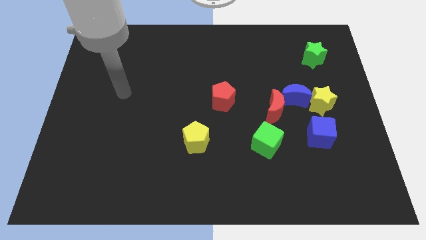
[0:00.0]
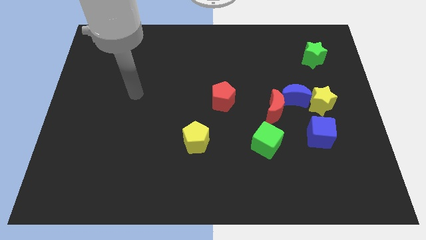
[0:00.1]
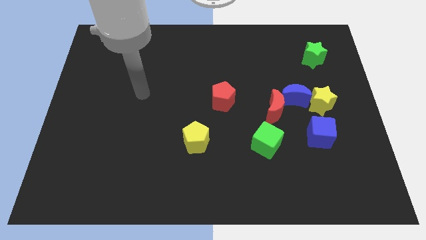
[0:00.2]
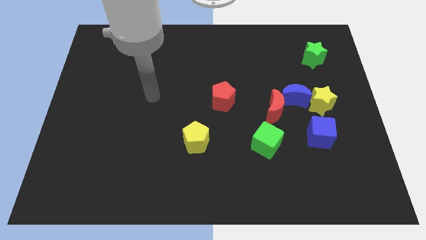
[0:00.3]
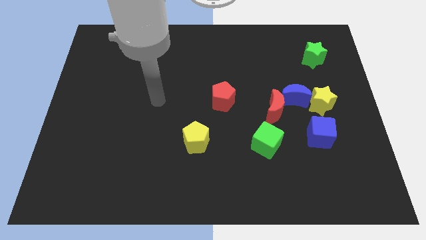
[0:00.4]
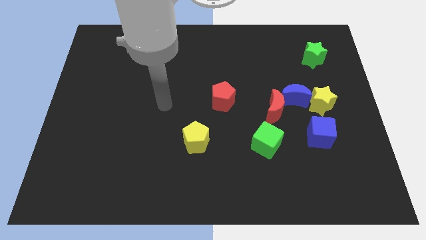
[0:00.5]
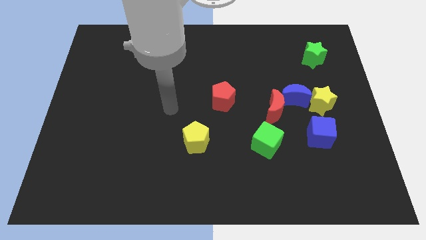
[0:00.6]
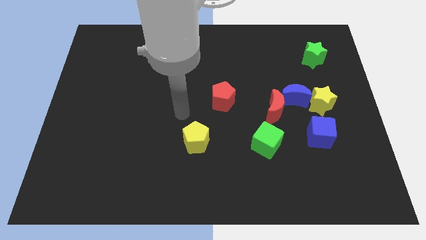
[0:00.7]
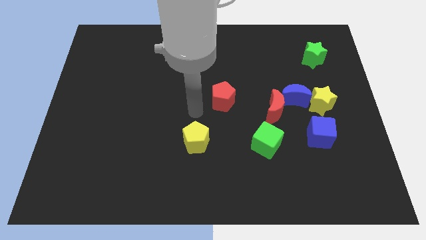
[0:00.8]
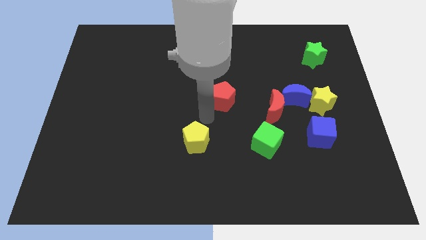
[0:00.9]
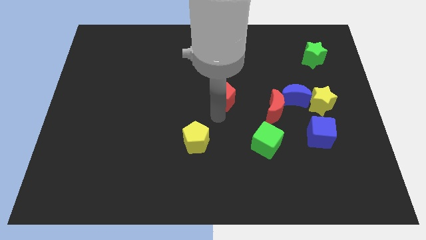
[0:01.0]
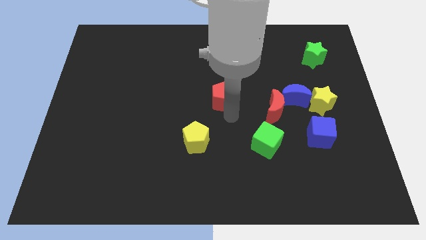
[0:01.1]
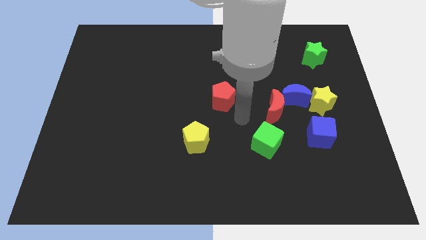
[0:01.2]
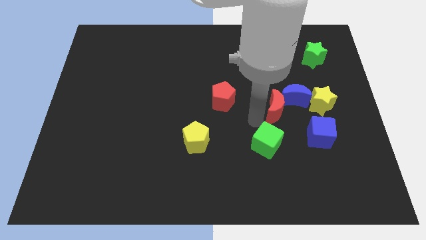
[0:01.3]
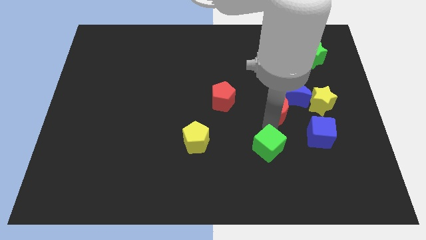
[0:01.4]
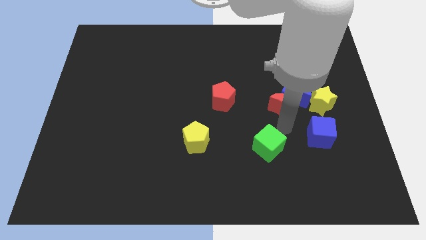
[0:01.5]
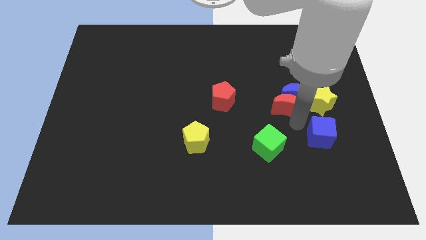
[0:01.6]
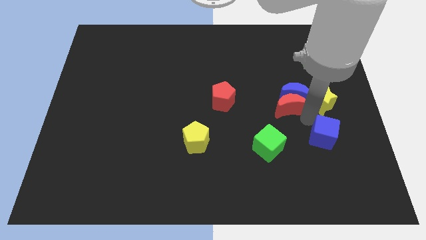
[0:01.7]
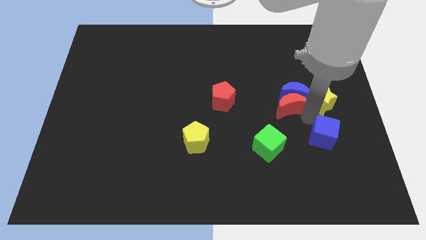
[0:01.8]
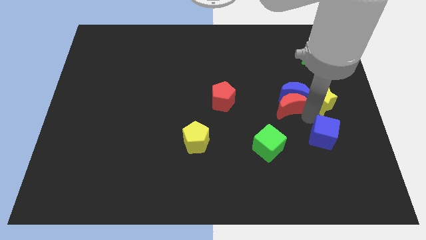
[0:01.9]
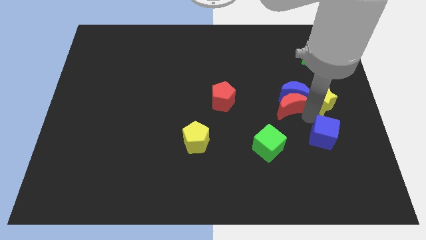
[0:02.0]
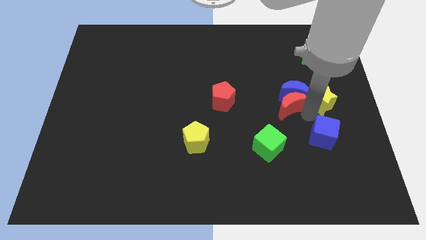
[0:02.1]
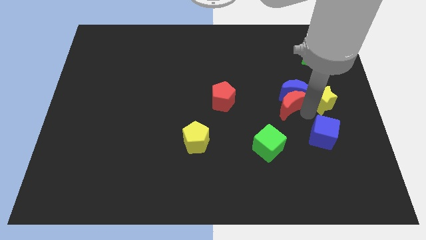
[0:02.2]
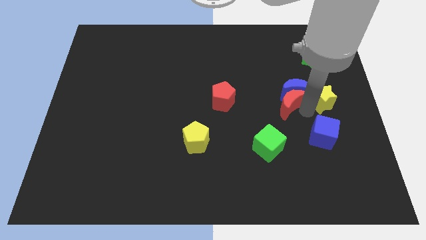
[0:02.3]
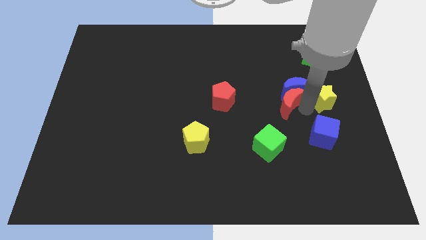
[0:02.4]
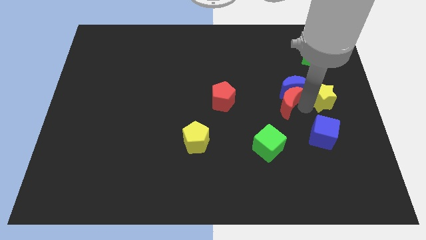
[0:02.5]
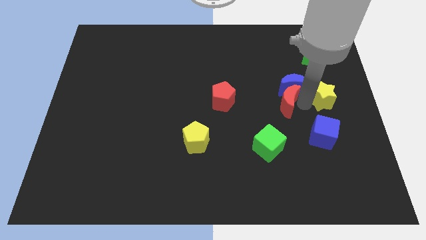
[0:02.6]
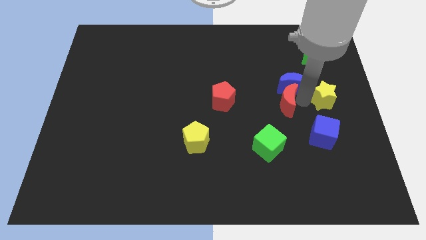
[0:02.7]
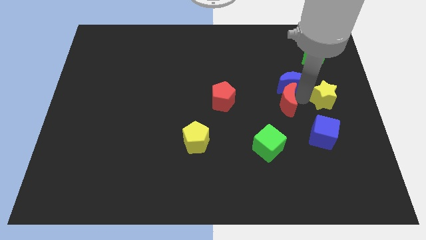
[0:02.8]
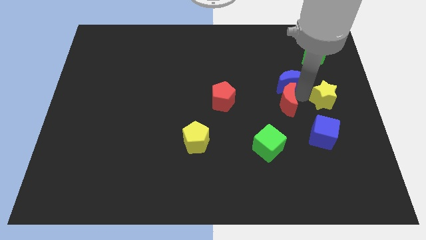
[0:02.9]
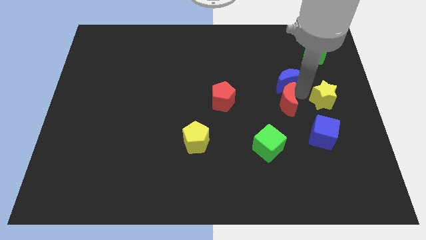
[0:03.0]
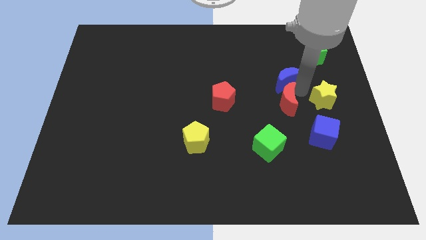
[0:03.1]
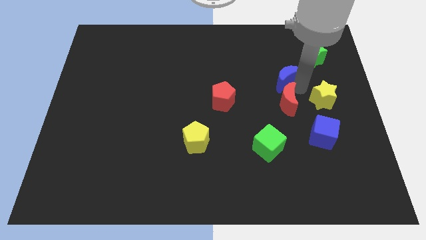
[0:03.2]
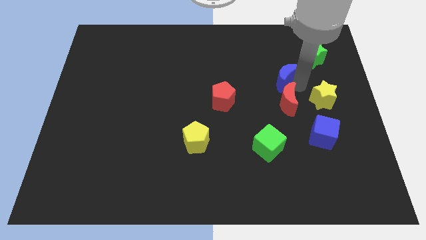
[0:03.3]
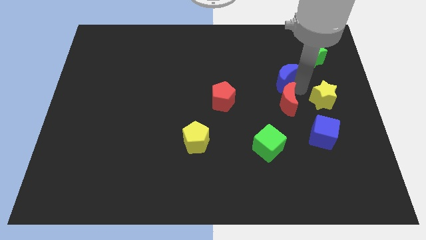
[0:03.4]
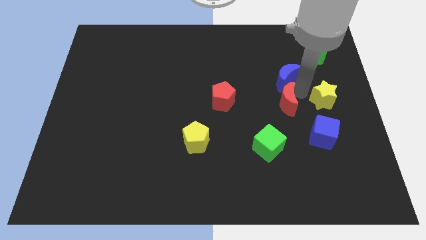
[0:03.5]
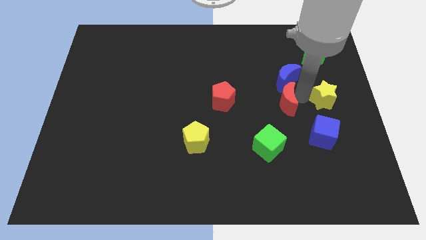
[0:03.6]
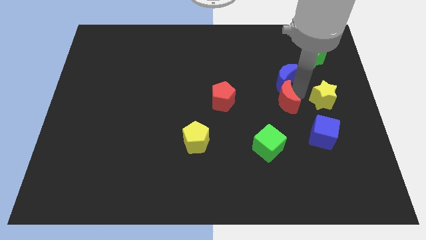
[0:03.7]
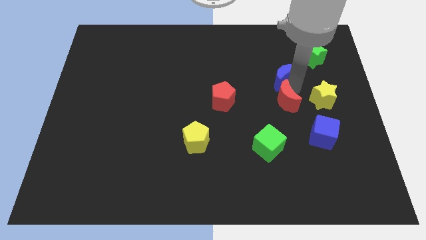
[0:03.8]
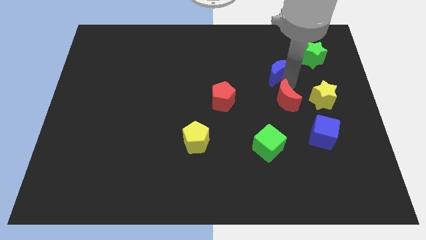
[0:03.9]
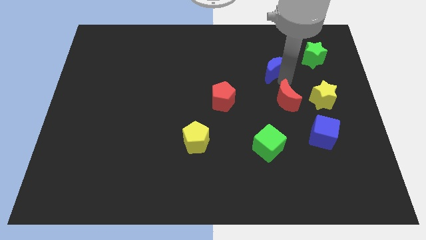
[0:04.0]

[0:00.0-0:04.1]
move the blue moon away from the red moon and yellow star

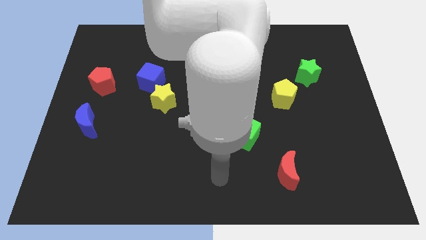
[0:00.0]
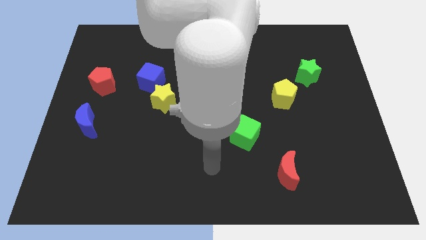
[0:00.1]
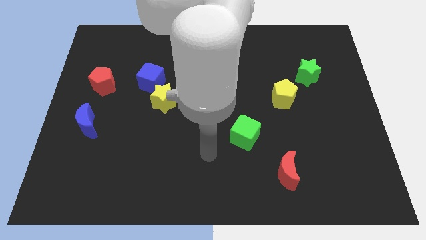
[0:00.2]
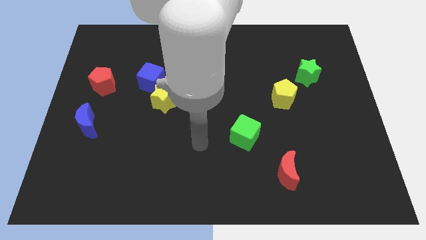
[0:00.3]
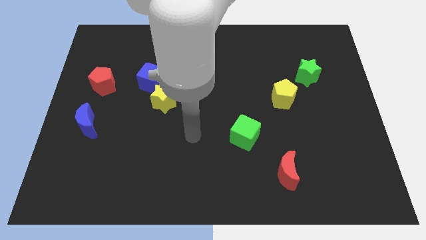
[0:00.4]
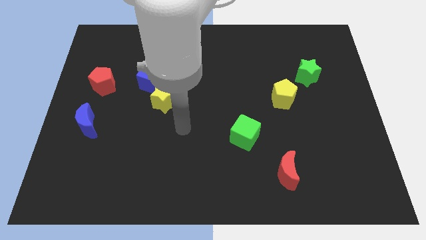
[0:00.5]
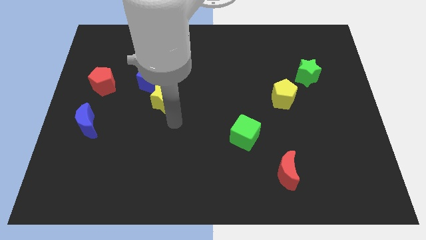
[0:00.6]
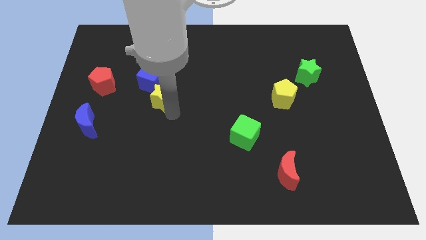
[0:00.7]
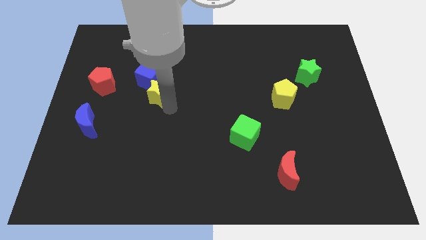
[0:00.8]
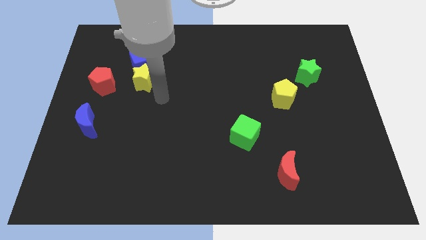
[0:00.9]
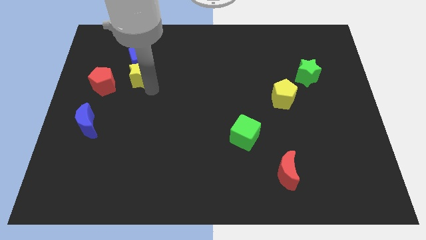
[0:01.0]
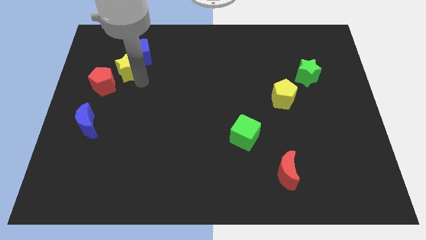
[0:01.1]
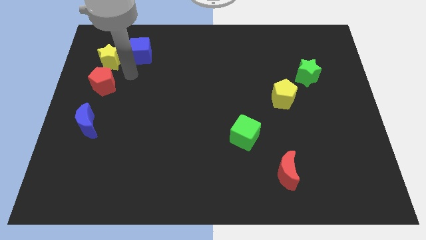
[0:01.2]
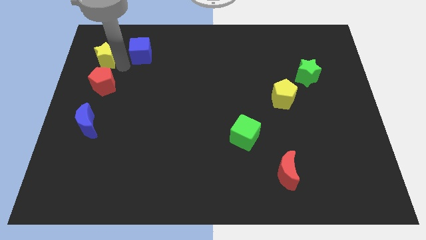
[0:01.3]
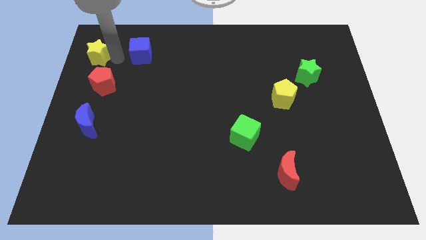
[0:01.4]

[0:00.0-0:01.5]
separate the blue cube from the yellow star

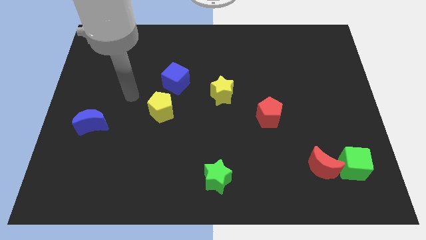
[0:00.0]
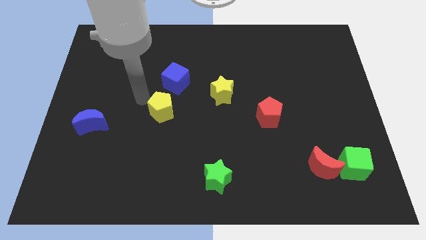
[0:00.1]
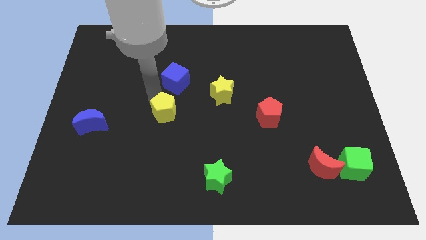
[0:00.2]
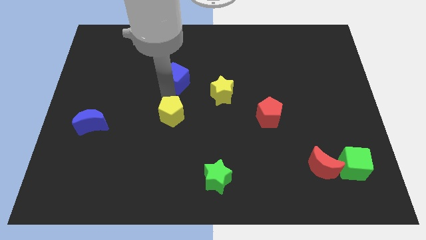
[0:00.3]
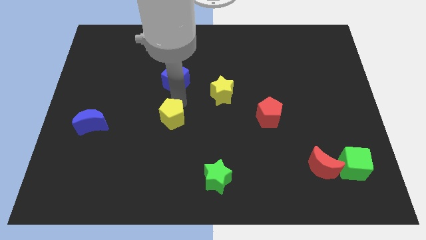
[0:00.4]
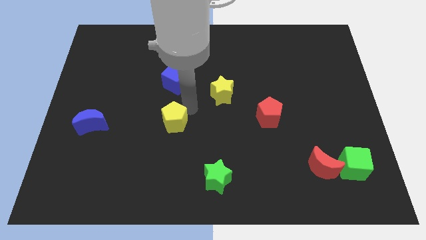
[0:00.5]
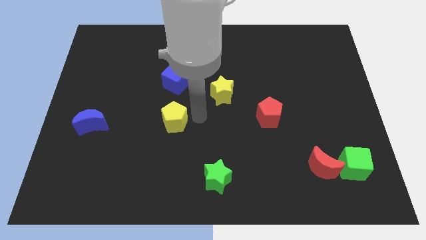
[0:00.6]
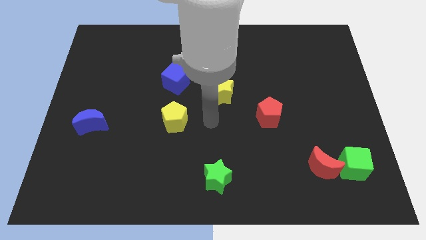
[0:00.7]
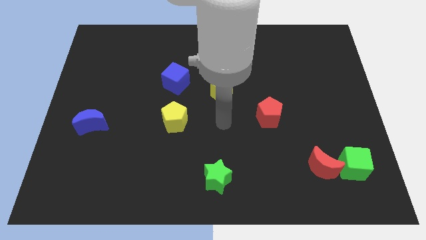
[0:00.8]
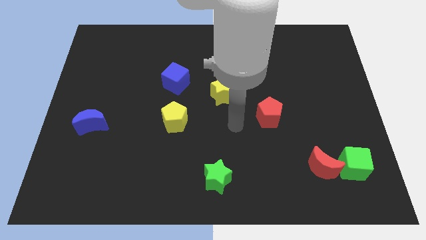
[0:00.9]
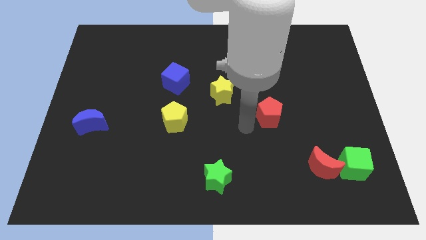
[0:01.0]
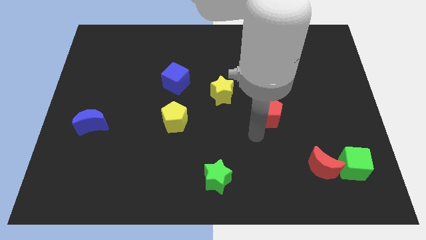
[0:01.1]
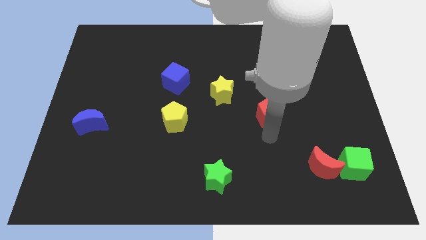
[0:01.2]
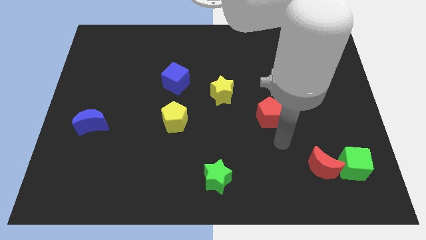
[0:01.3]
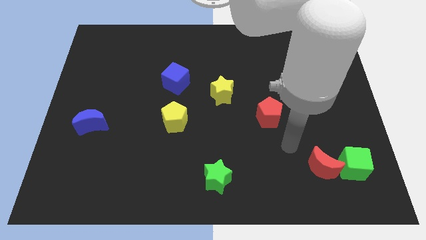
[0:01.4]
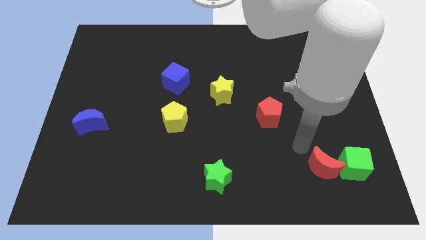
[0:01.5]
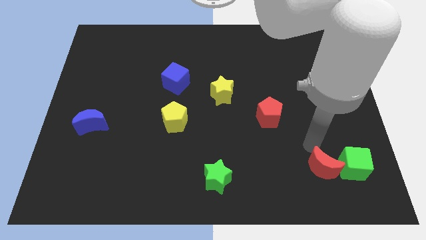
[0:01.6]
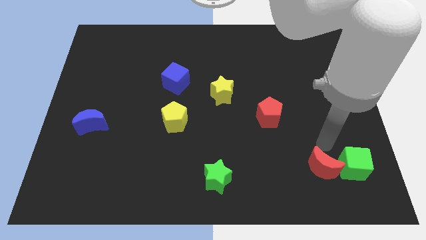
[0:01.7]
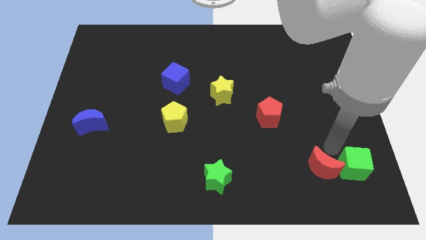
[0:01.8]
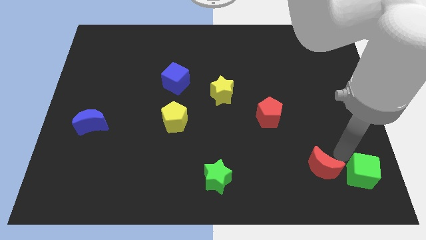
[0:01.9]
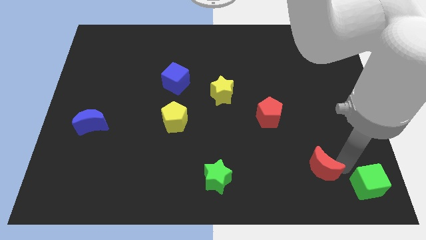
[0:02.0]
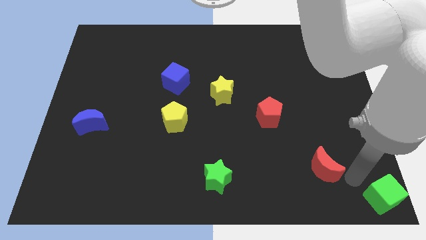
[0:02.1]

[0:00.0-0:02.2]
pull the red moon apart from the green cube

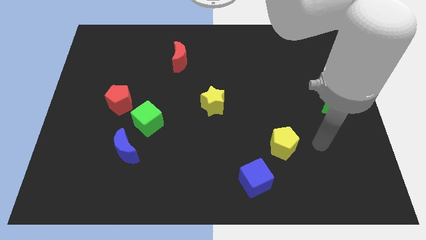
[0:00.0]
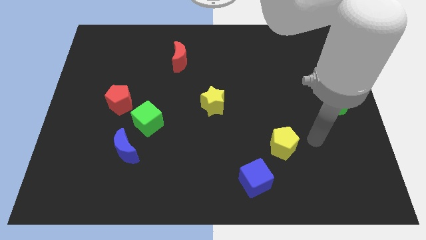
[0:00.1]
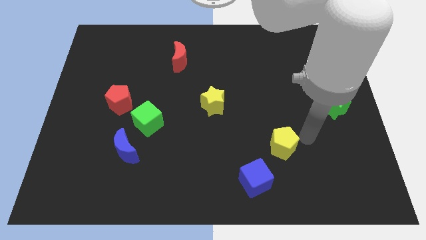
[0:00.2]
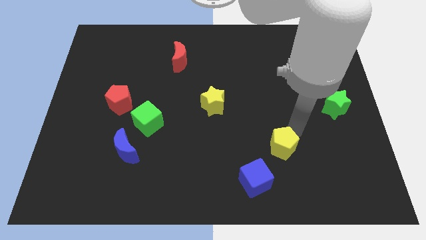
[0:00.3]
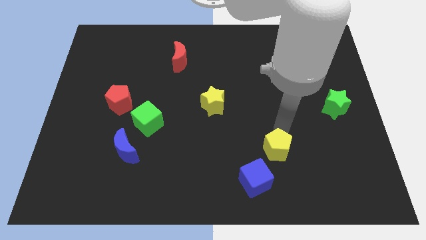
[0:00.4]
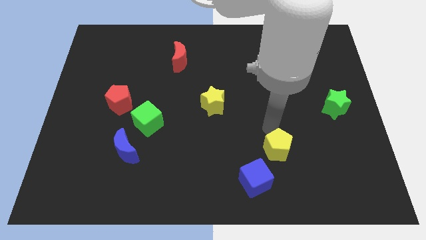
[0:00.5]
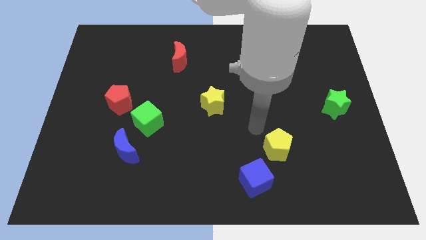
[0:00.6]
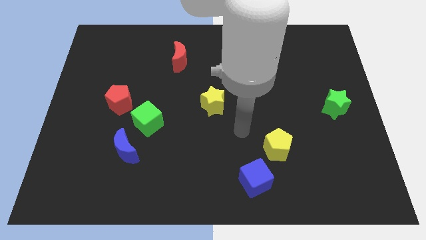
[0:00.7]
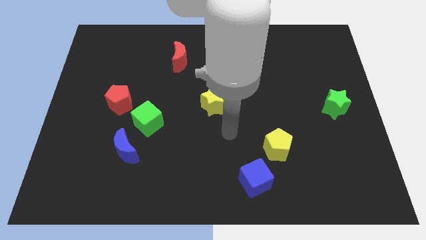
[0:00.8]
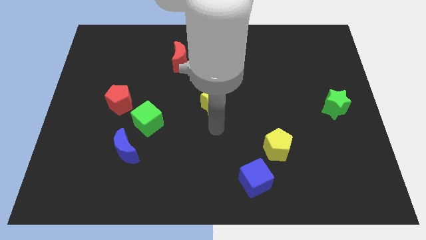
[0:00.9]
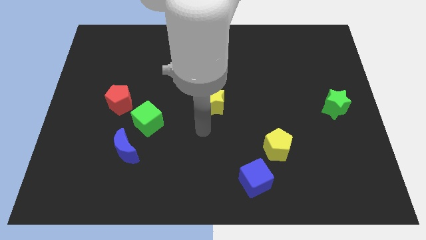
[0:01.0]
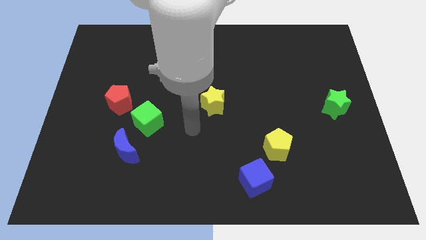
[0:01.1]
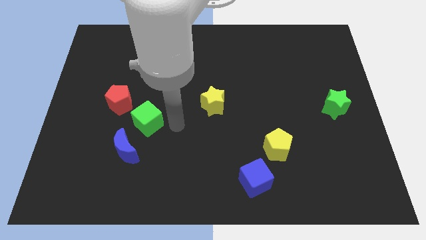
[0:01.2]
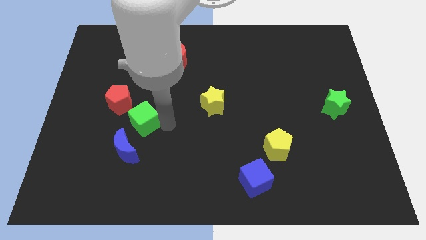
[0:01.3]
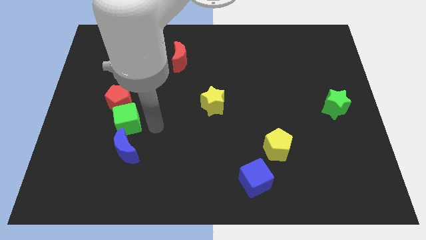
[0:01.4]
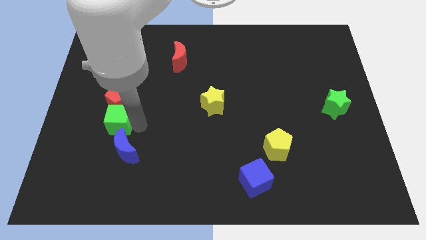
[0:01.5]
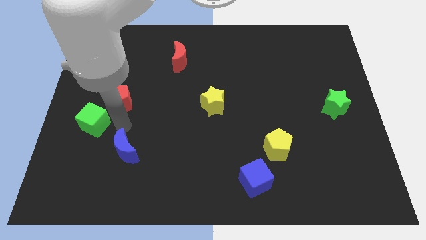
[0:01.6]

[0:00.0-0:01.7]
separate the blue moon from the green cube
